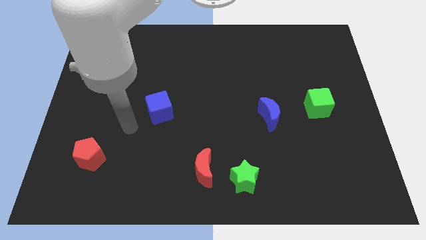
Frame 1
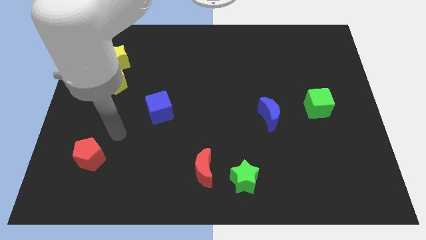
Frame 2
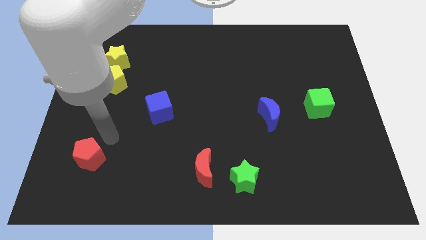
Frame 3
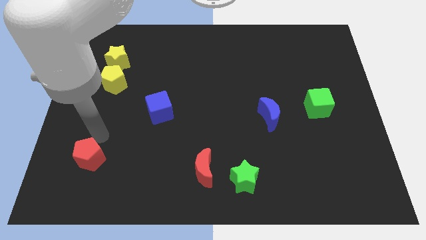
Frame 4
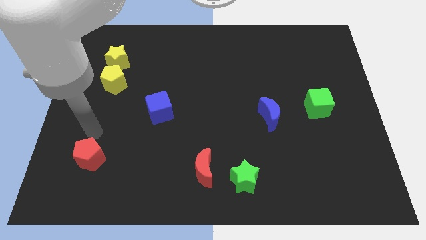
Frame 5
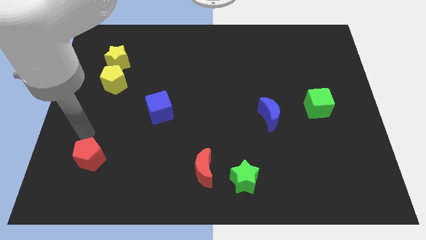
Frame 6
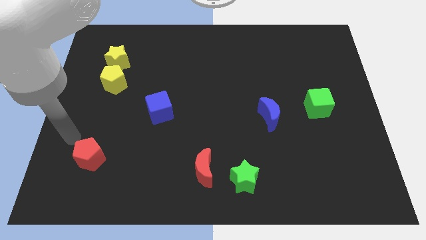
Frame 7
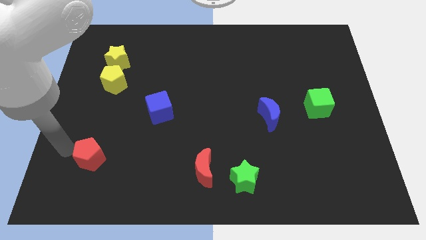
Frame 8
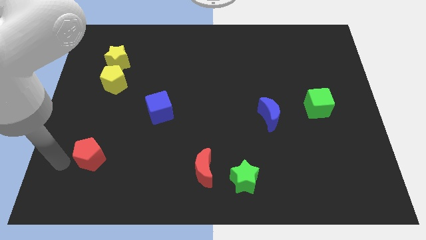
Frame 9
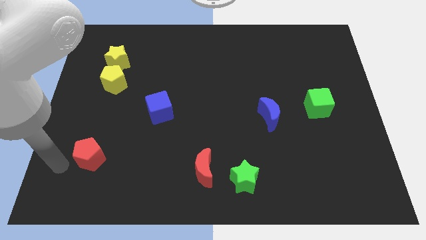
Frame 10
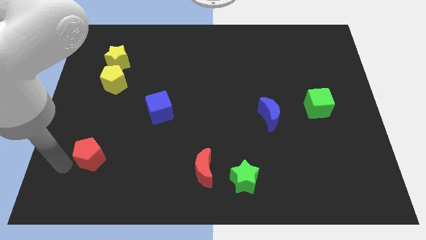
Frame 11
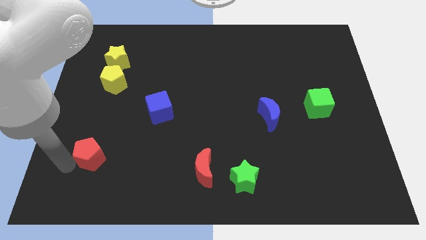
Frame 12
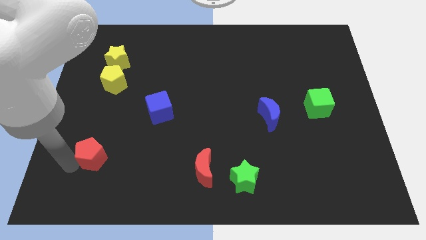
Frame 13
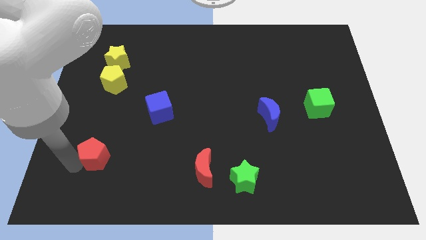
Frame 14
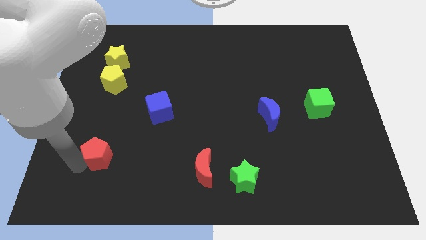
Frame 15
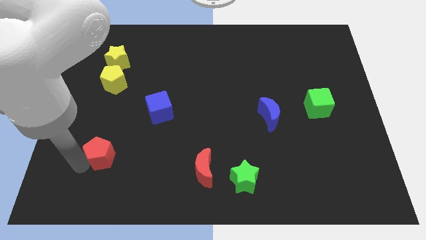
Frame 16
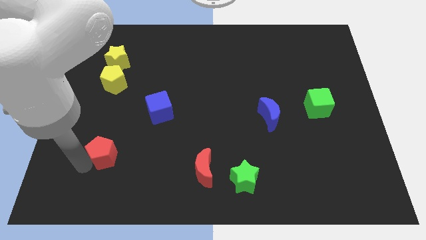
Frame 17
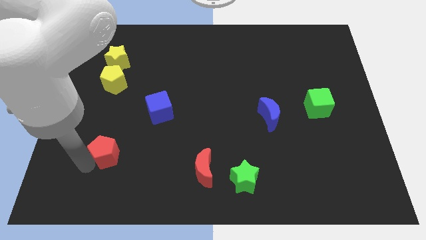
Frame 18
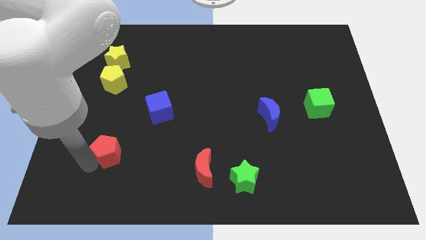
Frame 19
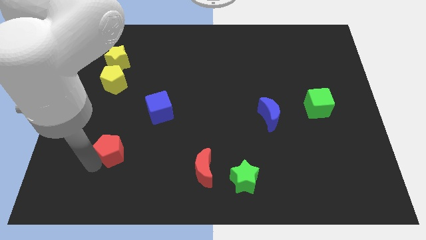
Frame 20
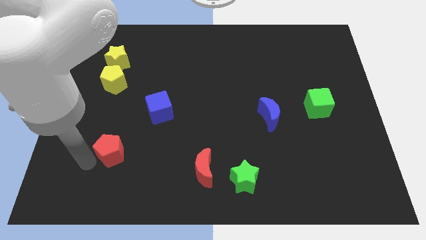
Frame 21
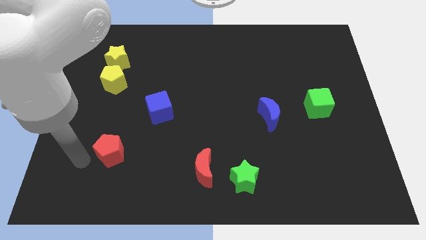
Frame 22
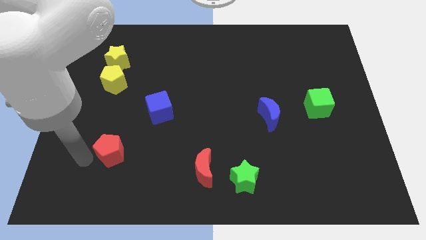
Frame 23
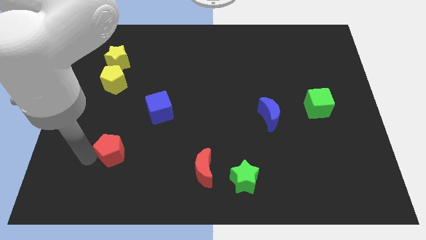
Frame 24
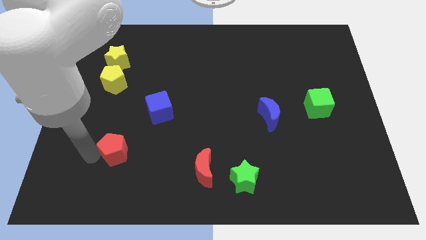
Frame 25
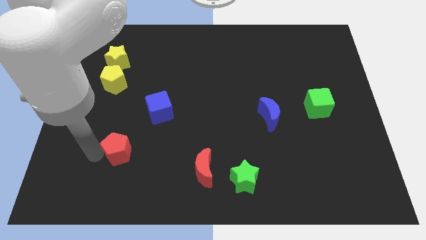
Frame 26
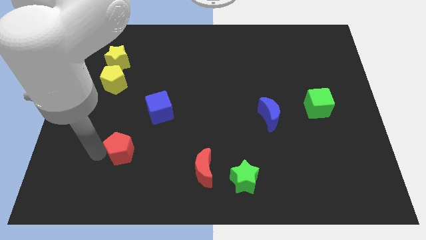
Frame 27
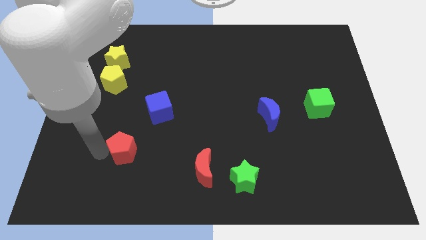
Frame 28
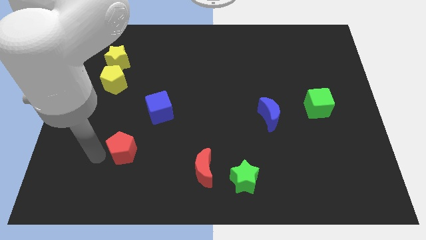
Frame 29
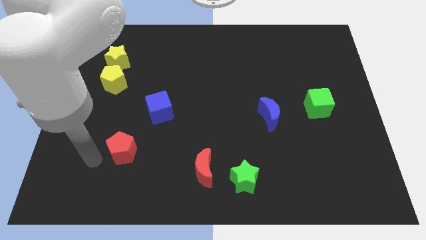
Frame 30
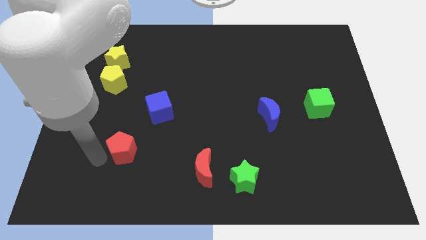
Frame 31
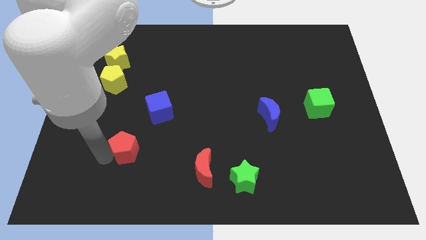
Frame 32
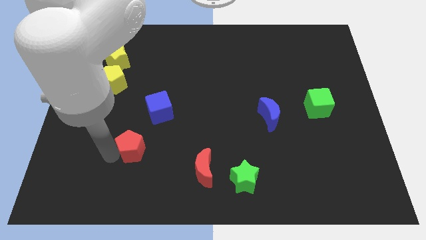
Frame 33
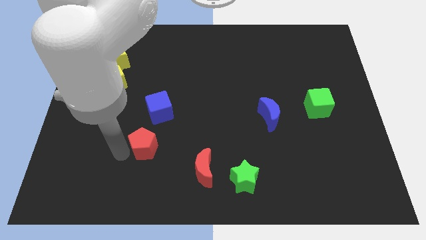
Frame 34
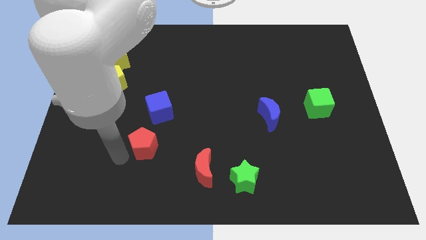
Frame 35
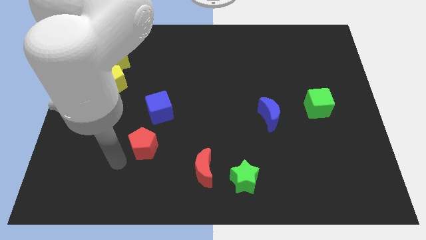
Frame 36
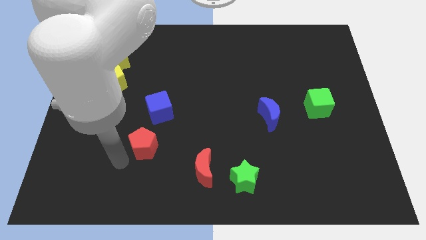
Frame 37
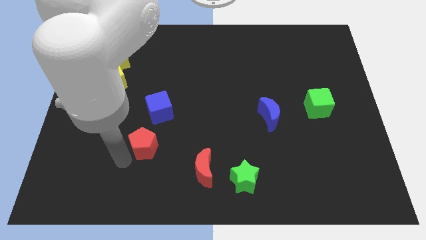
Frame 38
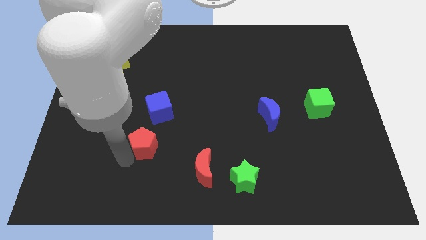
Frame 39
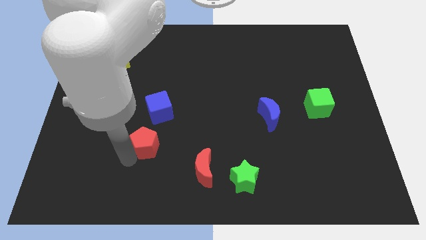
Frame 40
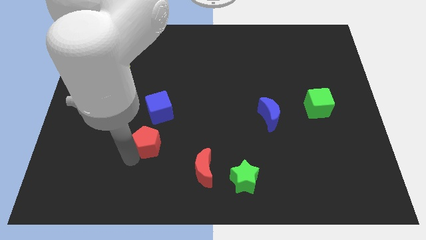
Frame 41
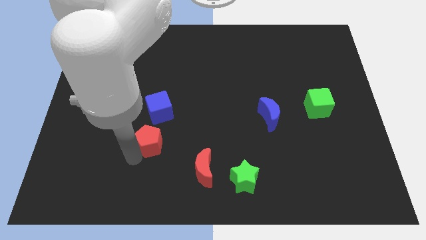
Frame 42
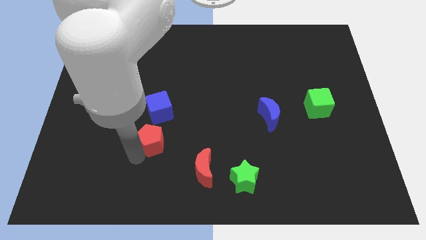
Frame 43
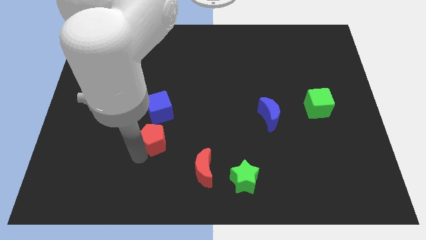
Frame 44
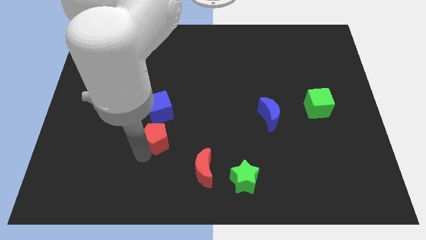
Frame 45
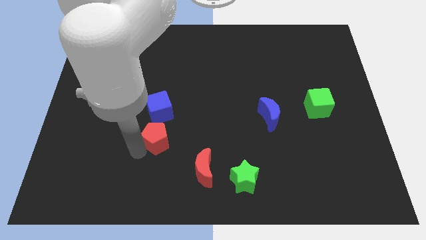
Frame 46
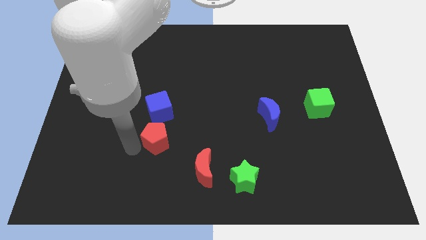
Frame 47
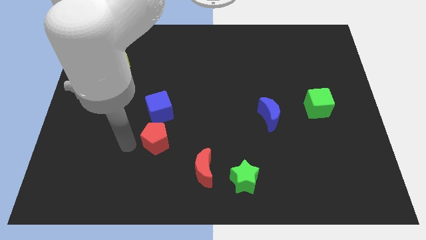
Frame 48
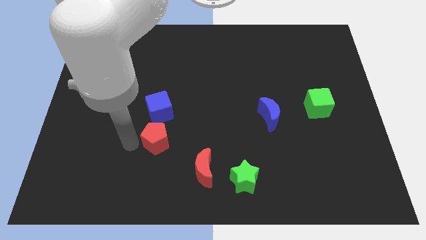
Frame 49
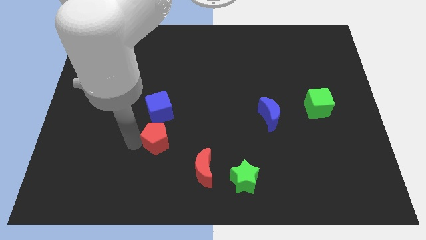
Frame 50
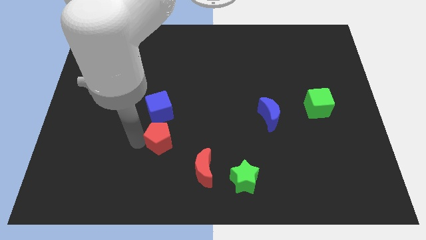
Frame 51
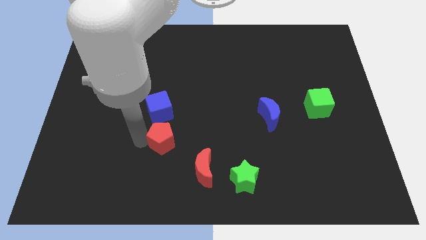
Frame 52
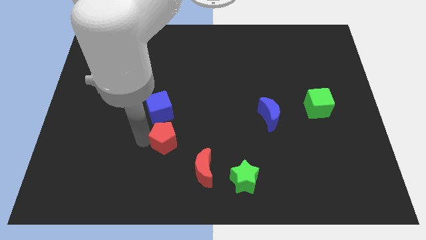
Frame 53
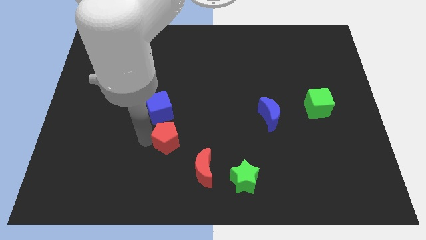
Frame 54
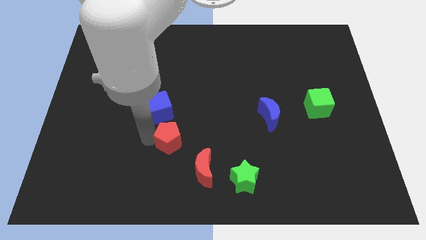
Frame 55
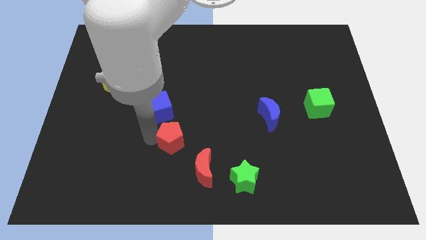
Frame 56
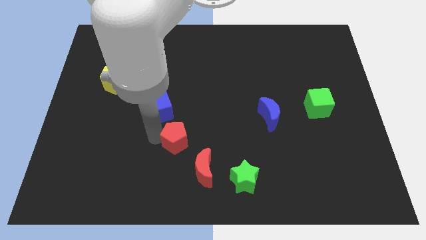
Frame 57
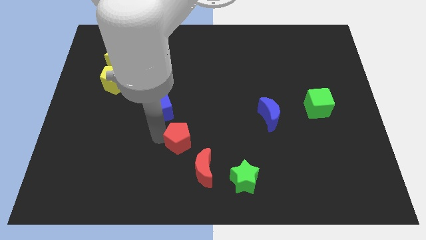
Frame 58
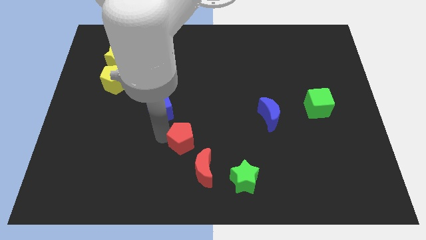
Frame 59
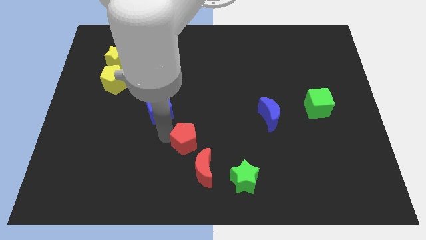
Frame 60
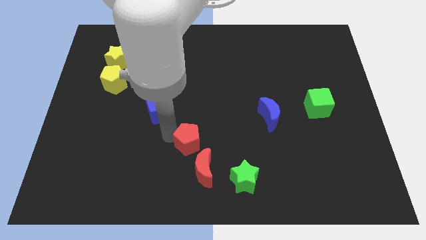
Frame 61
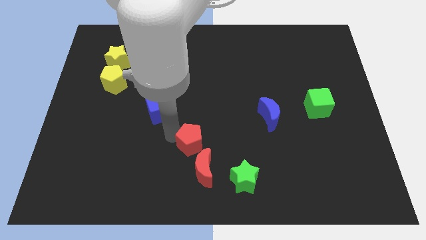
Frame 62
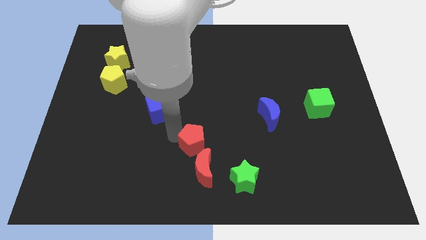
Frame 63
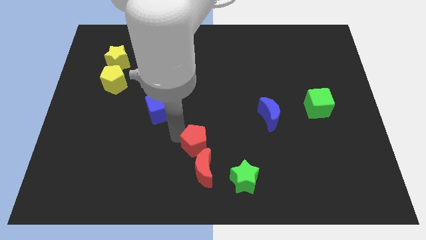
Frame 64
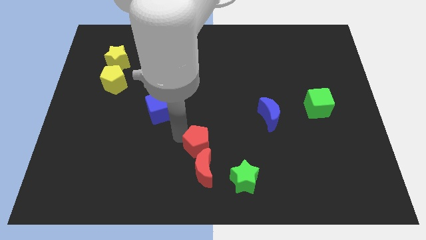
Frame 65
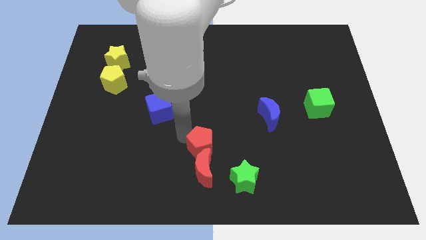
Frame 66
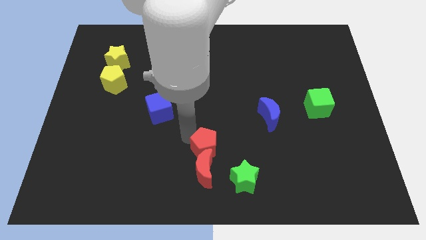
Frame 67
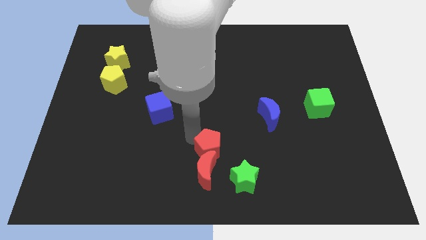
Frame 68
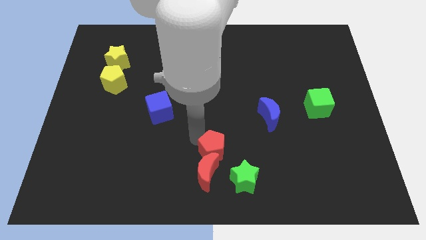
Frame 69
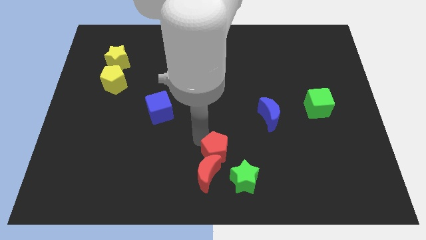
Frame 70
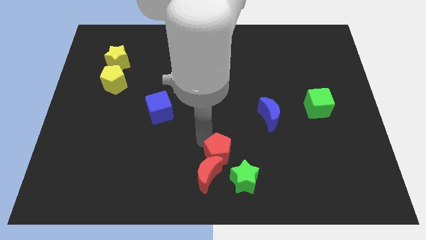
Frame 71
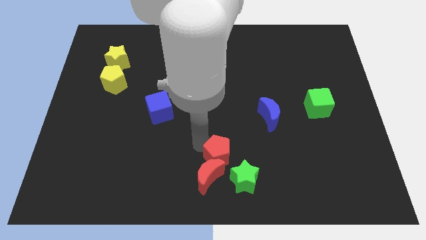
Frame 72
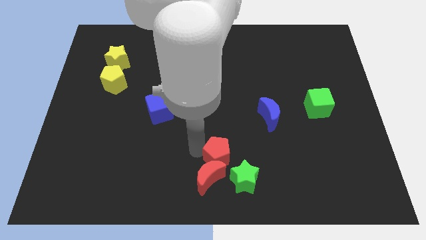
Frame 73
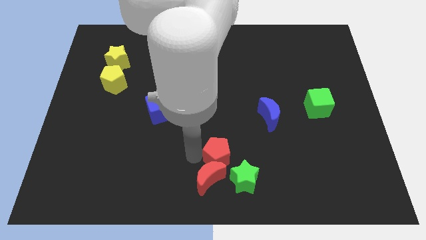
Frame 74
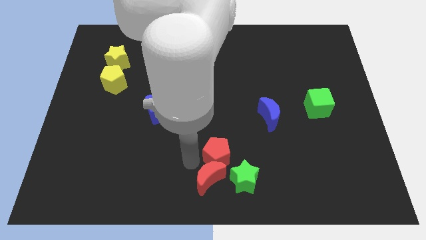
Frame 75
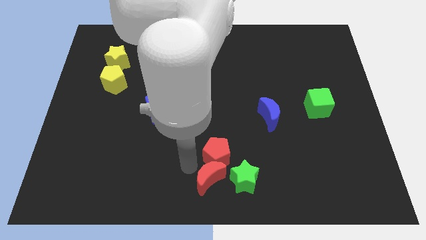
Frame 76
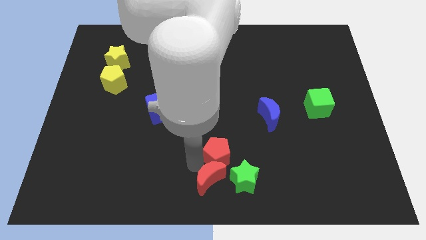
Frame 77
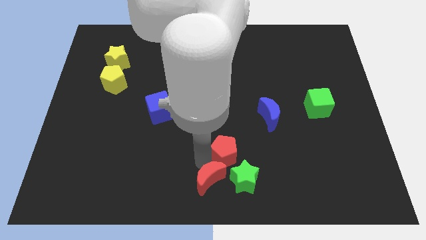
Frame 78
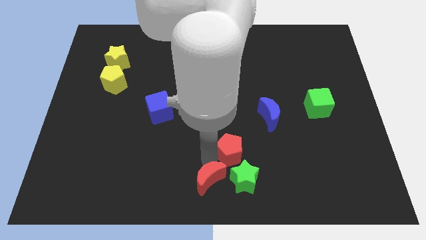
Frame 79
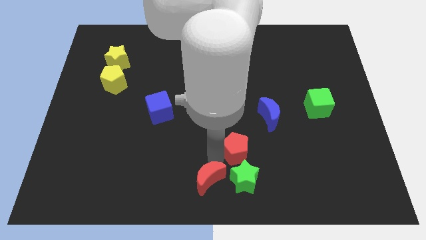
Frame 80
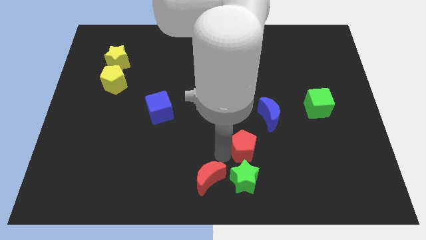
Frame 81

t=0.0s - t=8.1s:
push the red pentagon to the top right side of the green star
